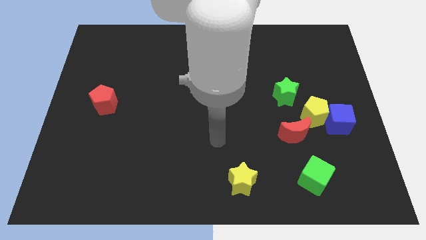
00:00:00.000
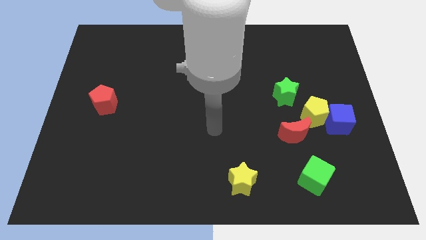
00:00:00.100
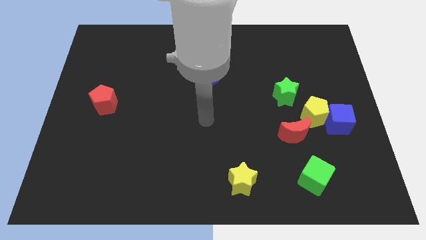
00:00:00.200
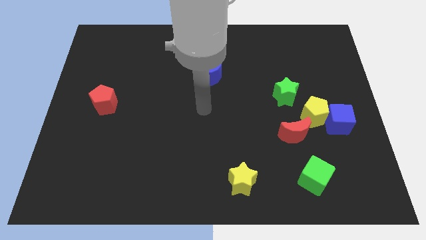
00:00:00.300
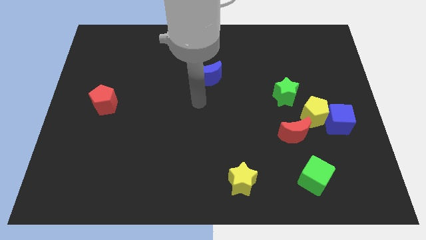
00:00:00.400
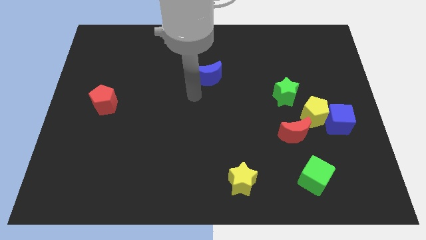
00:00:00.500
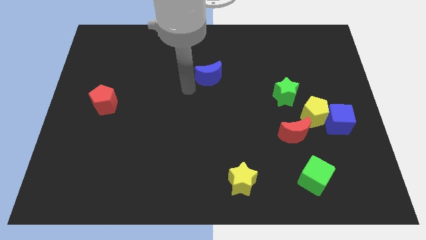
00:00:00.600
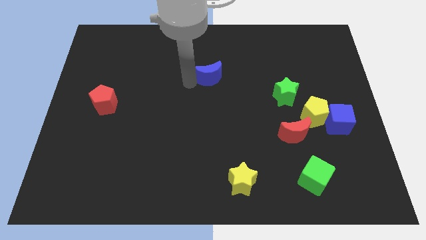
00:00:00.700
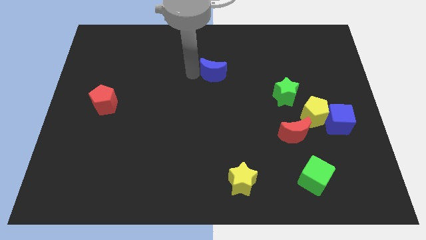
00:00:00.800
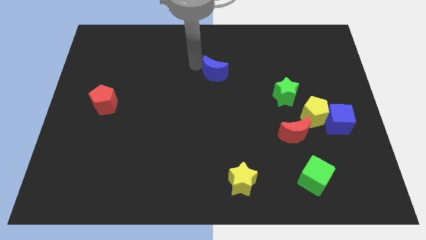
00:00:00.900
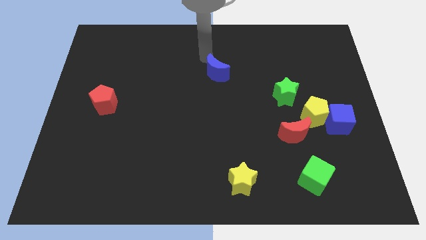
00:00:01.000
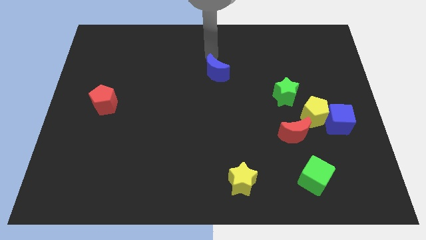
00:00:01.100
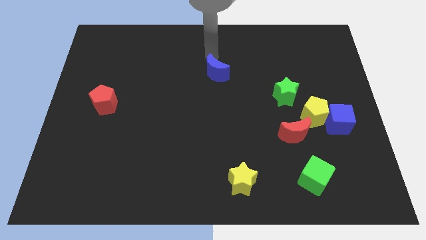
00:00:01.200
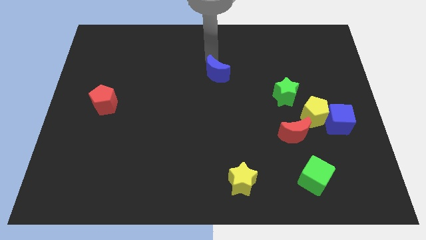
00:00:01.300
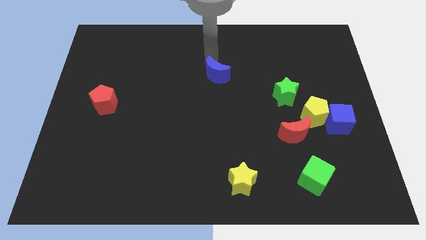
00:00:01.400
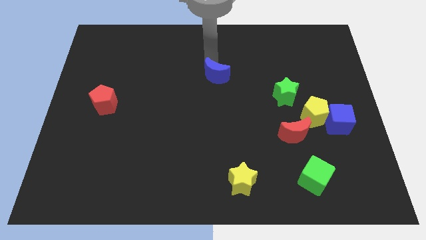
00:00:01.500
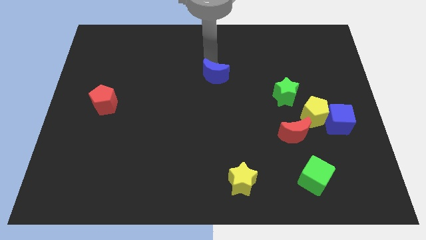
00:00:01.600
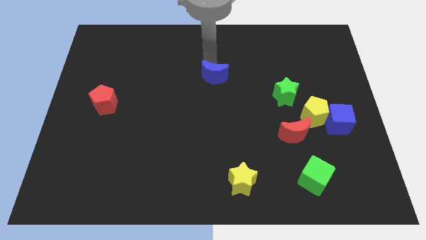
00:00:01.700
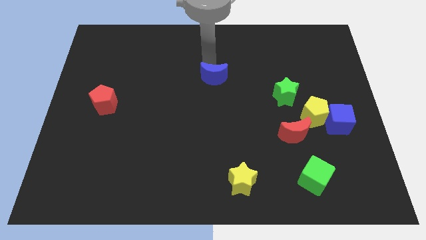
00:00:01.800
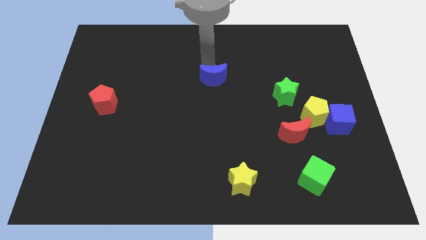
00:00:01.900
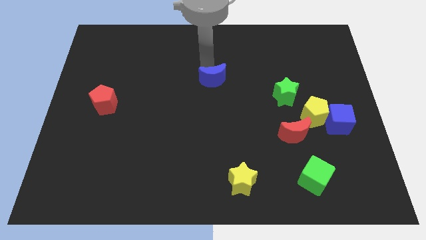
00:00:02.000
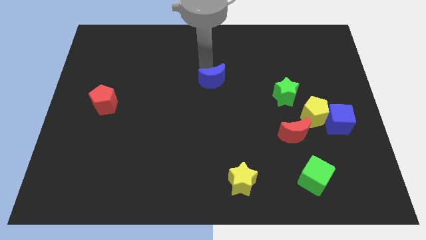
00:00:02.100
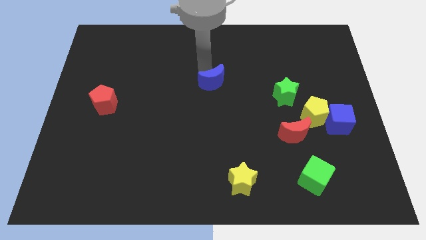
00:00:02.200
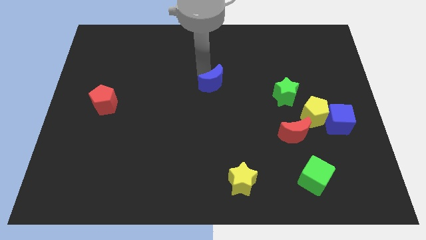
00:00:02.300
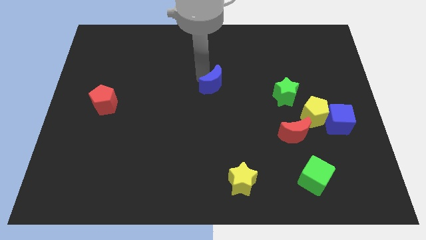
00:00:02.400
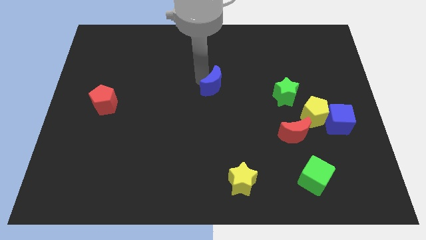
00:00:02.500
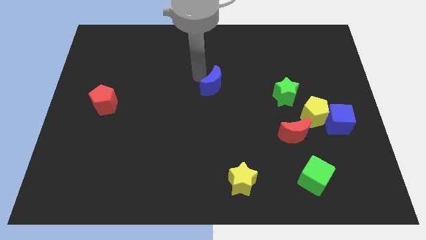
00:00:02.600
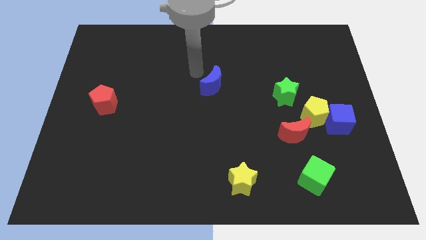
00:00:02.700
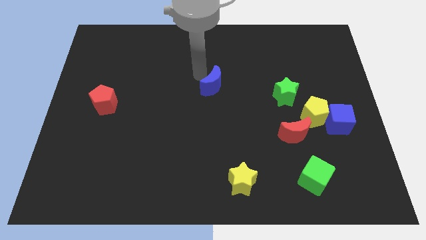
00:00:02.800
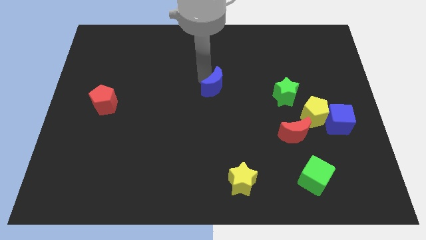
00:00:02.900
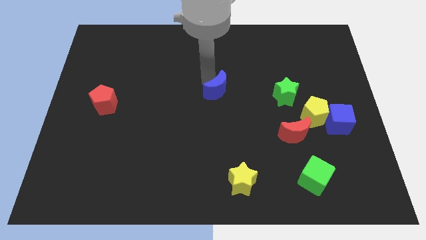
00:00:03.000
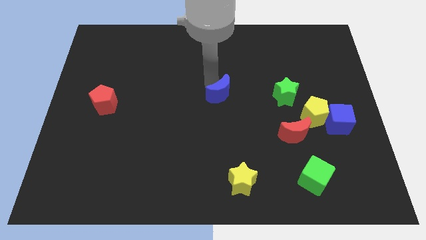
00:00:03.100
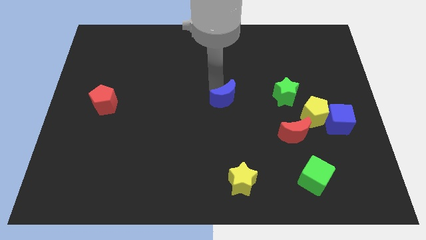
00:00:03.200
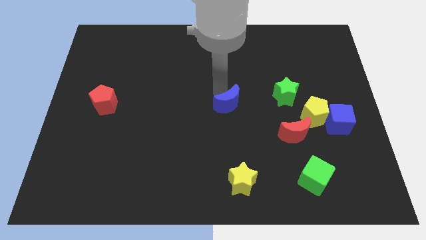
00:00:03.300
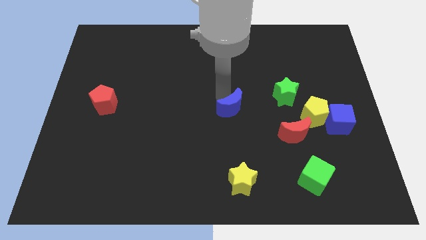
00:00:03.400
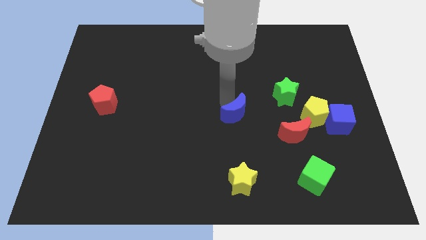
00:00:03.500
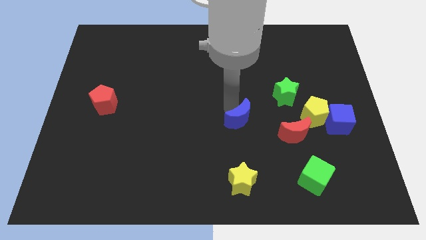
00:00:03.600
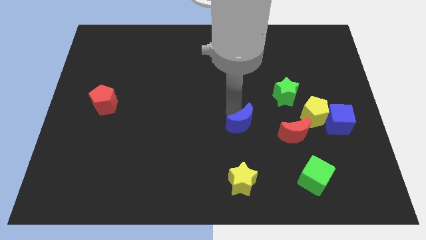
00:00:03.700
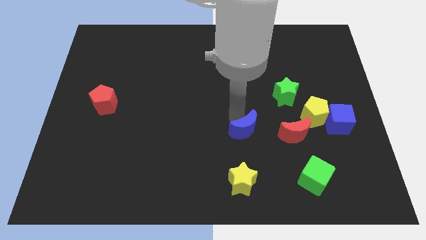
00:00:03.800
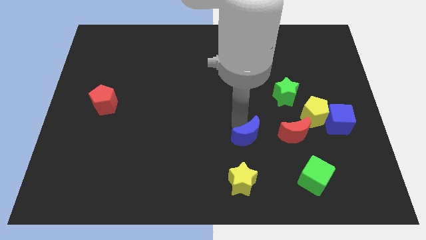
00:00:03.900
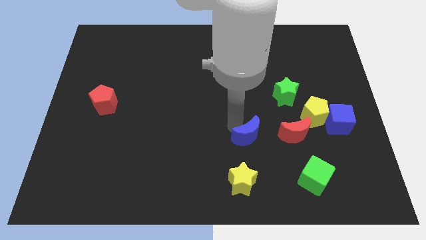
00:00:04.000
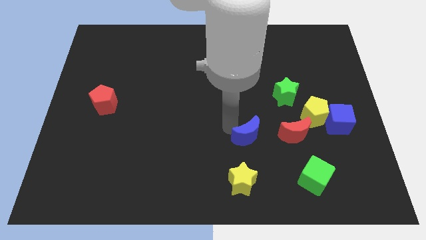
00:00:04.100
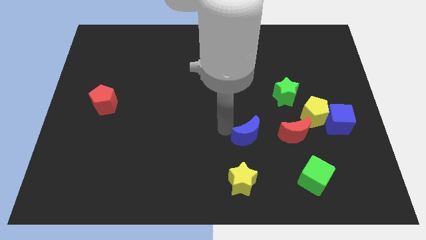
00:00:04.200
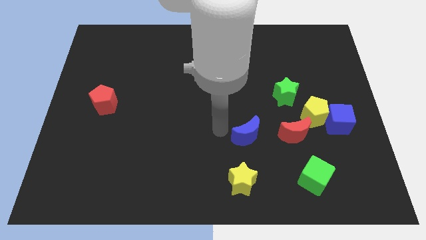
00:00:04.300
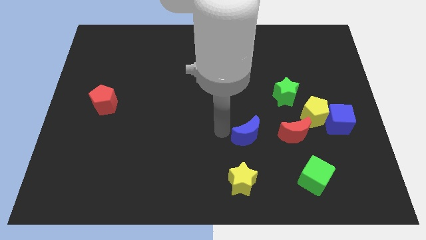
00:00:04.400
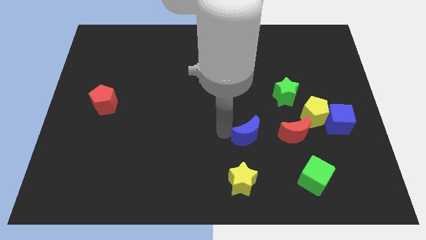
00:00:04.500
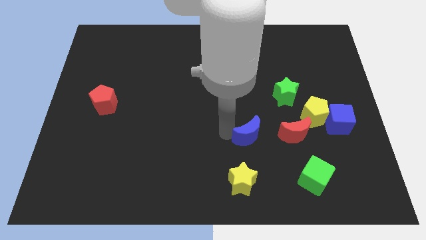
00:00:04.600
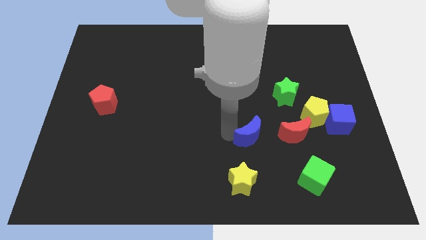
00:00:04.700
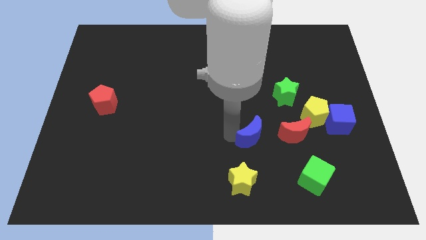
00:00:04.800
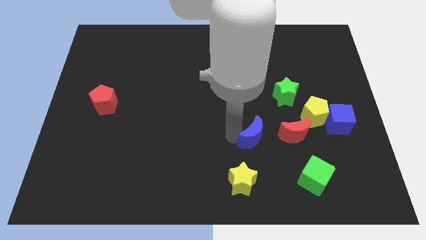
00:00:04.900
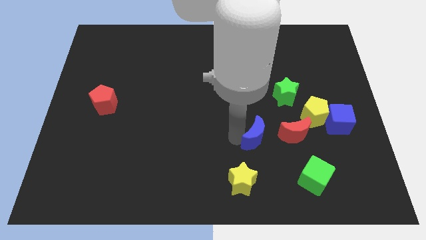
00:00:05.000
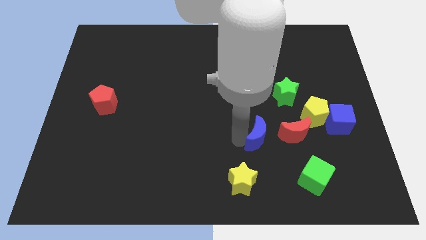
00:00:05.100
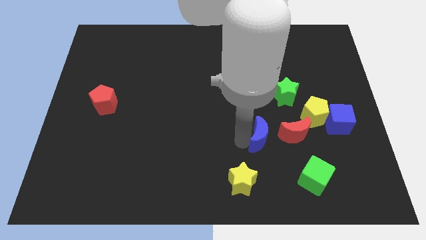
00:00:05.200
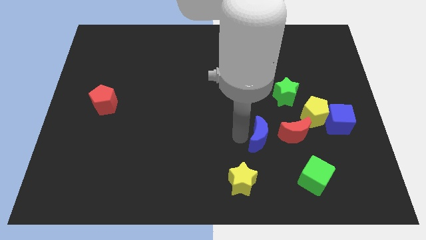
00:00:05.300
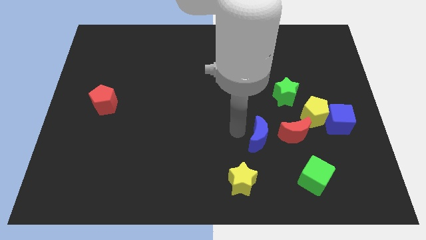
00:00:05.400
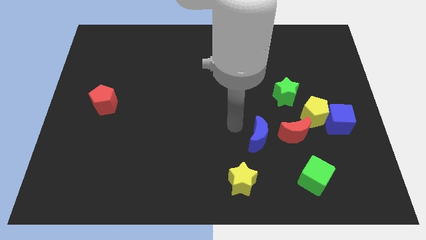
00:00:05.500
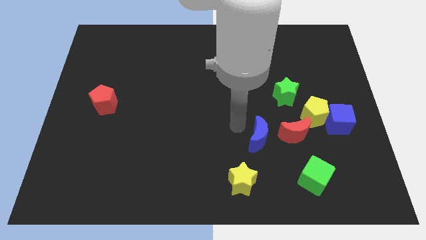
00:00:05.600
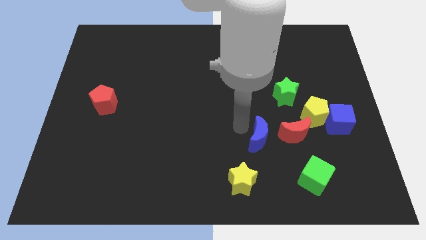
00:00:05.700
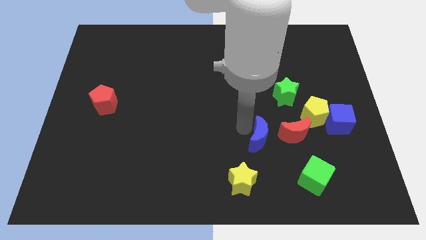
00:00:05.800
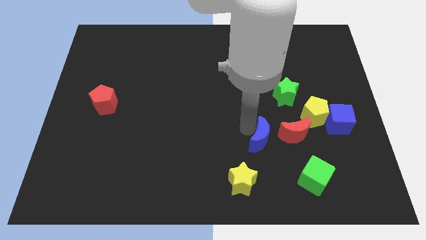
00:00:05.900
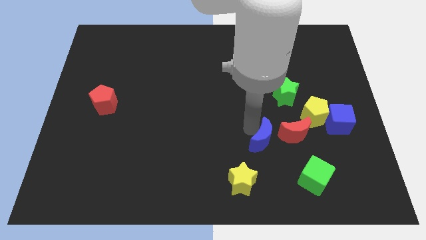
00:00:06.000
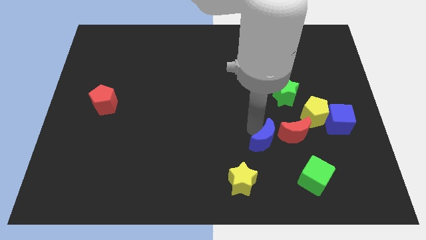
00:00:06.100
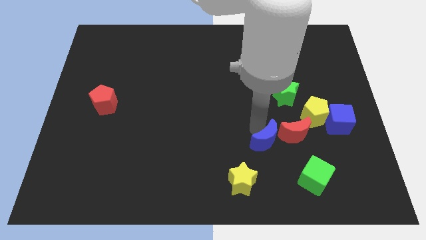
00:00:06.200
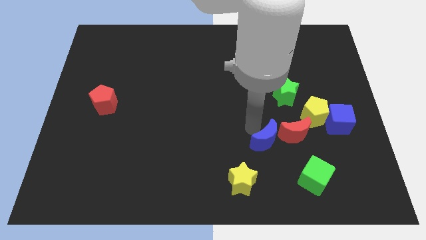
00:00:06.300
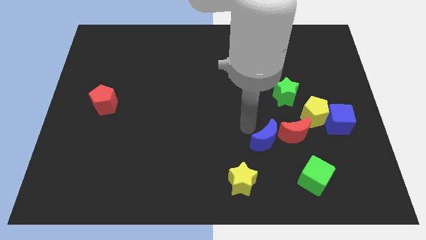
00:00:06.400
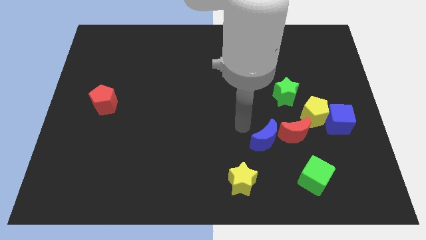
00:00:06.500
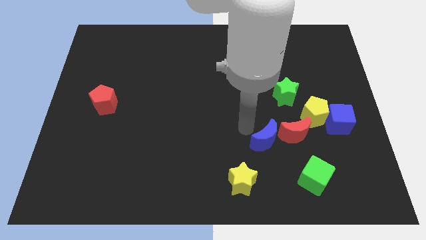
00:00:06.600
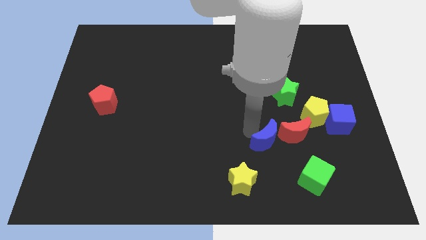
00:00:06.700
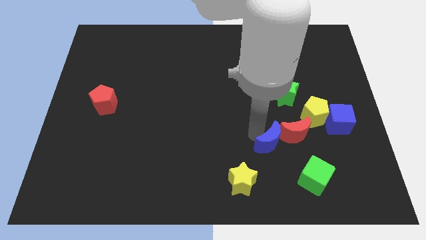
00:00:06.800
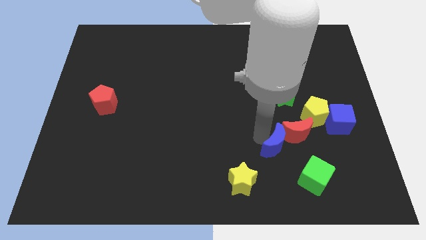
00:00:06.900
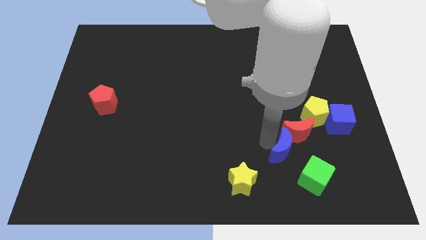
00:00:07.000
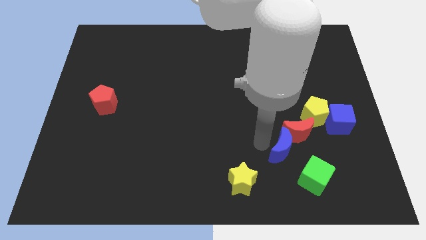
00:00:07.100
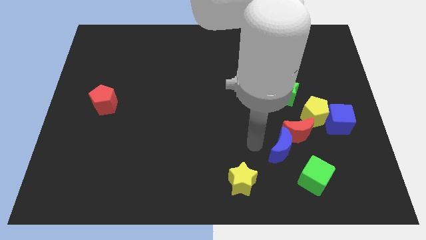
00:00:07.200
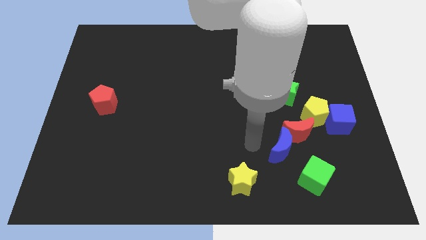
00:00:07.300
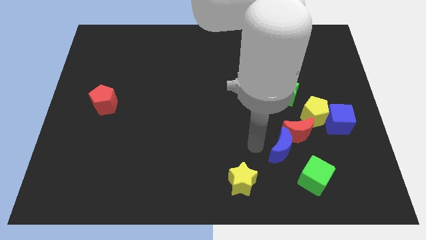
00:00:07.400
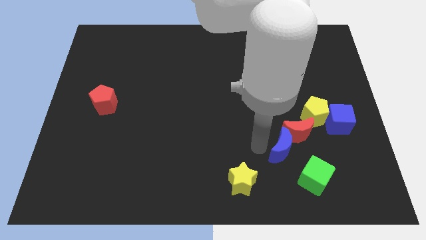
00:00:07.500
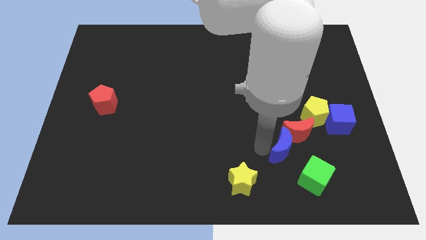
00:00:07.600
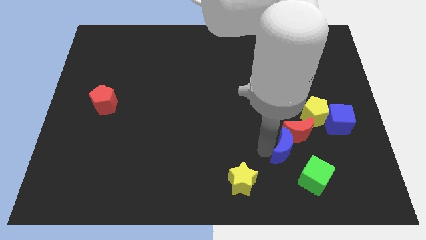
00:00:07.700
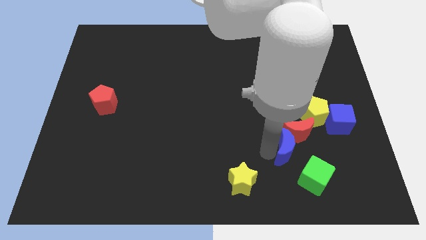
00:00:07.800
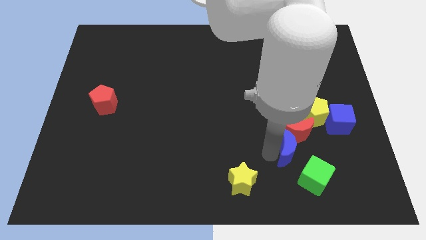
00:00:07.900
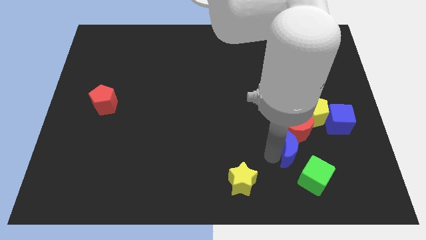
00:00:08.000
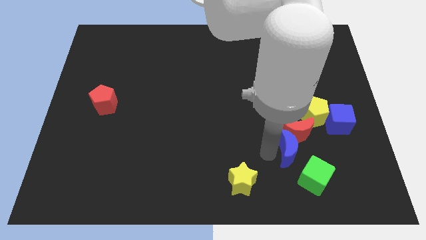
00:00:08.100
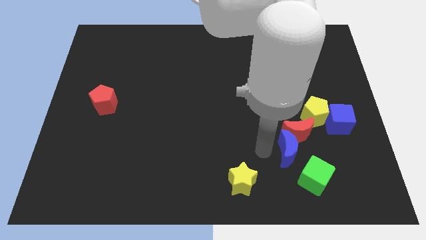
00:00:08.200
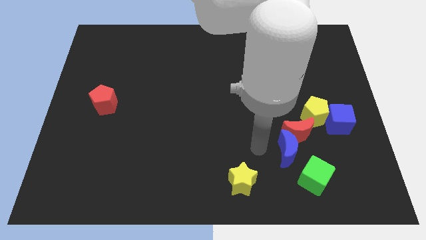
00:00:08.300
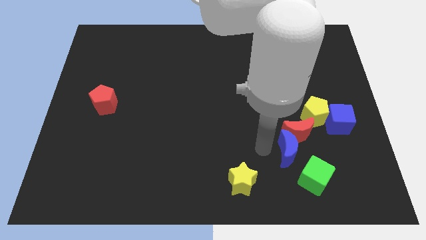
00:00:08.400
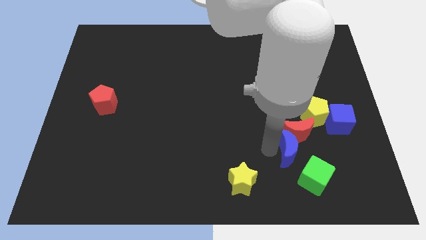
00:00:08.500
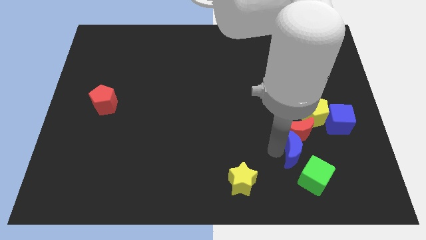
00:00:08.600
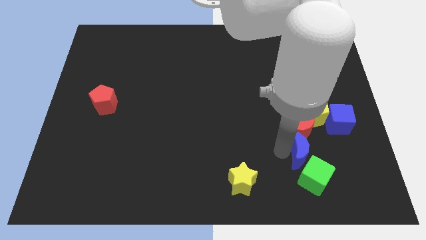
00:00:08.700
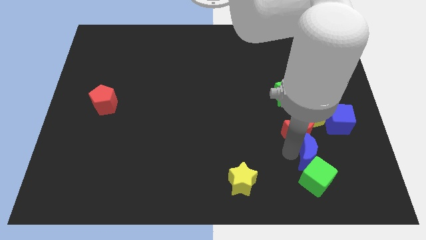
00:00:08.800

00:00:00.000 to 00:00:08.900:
move the blue moon to the top right side of the green cube
